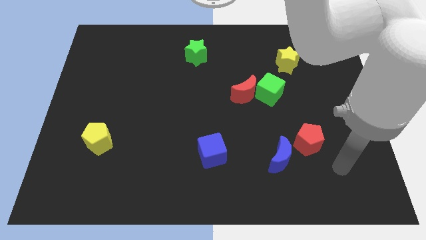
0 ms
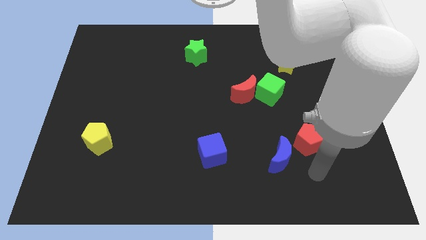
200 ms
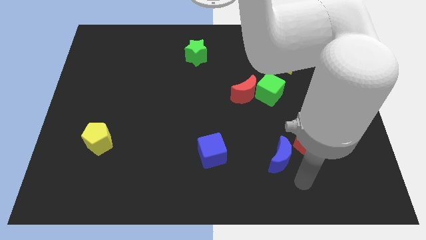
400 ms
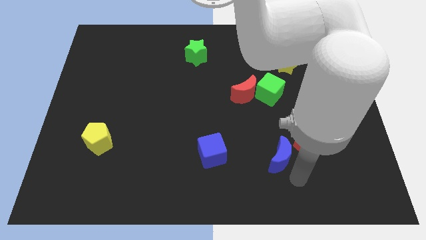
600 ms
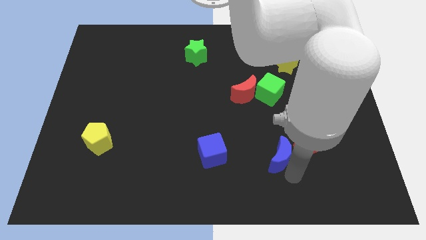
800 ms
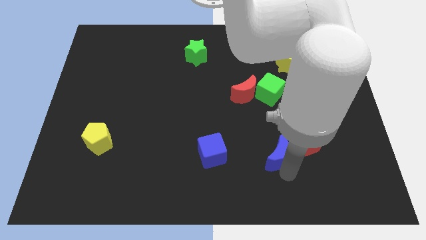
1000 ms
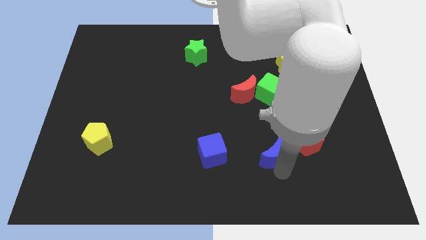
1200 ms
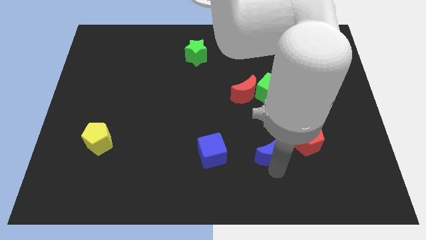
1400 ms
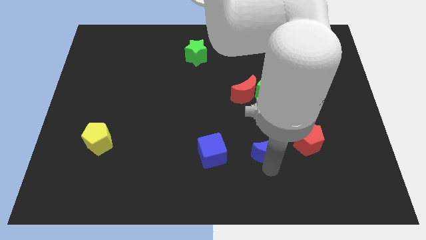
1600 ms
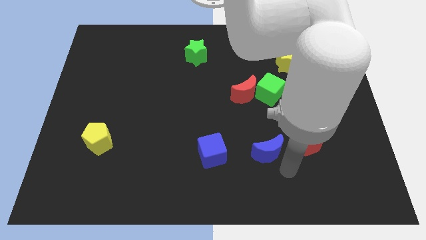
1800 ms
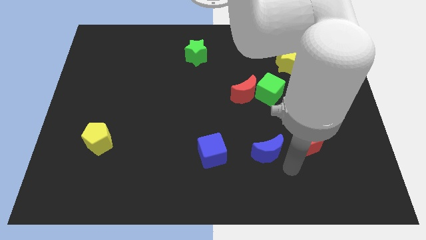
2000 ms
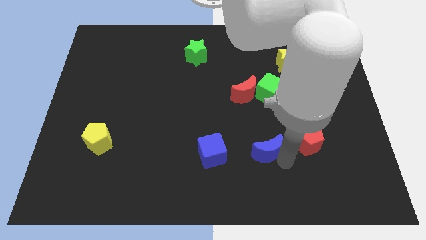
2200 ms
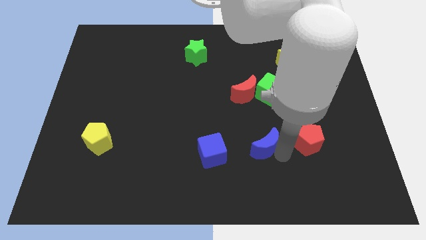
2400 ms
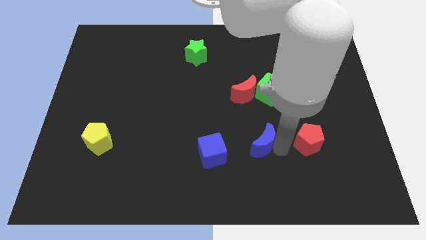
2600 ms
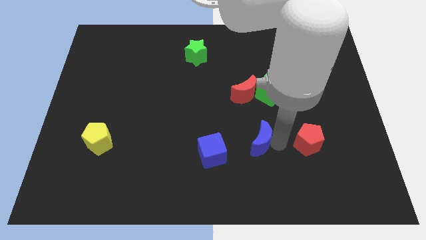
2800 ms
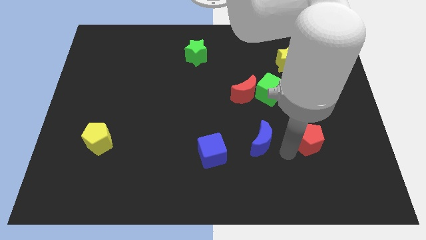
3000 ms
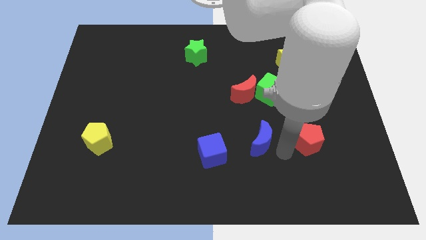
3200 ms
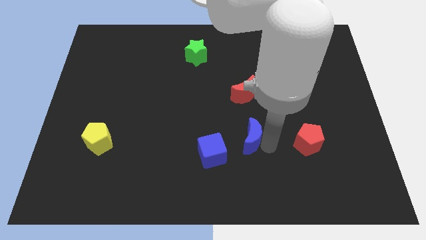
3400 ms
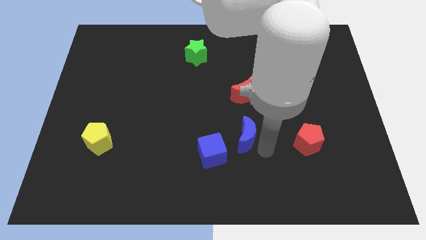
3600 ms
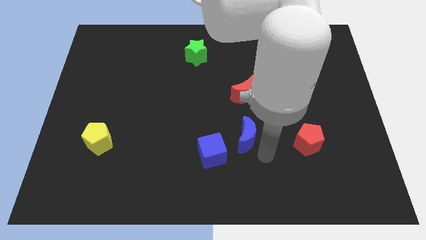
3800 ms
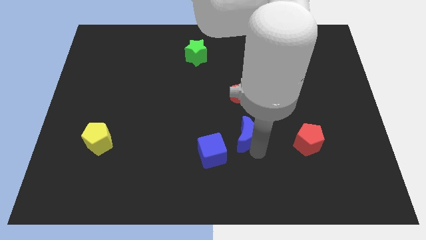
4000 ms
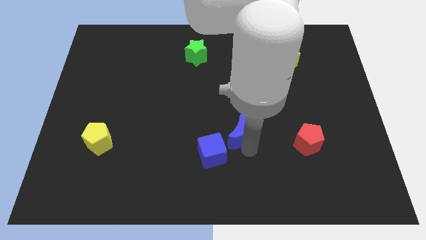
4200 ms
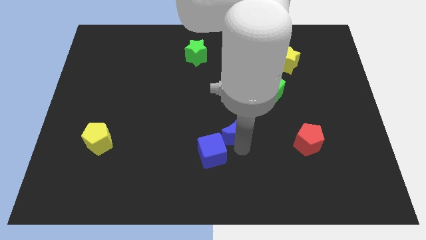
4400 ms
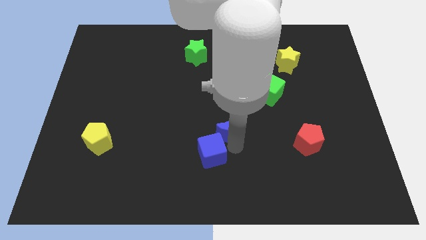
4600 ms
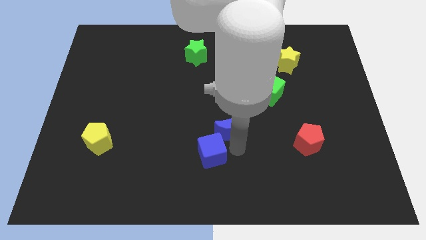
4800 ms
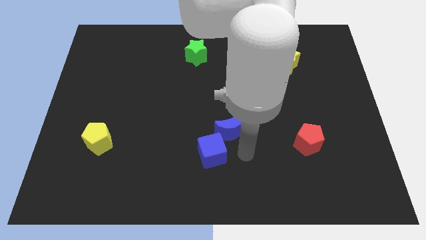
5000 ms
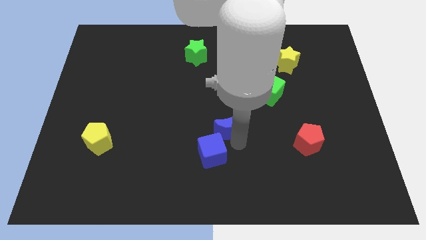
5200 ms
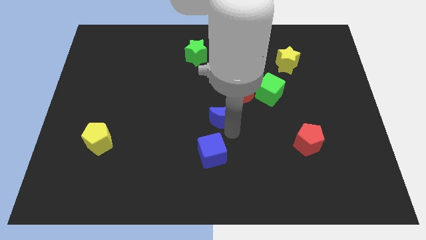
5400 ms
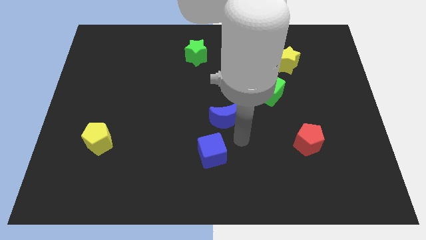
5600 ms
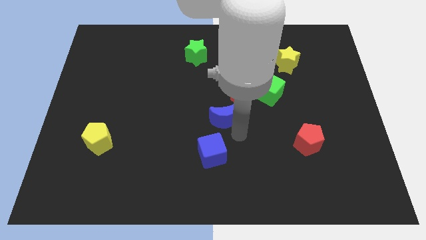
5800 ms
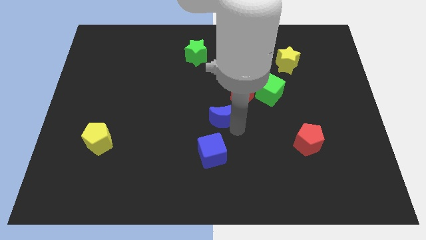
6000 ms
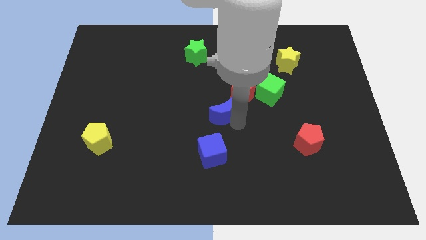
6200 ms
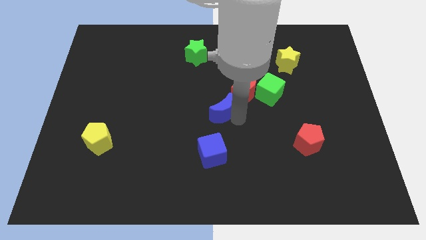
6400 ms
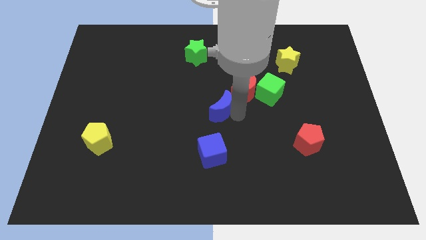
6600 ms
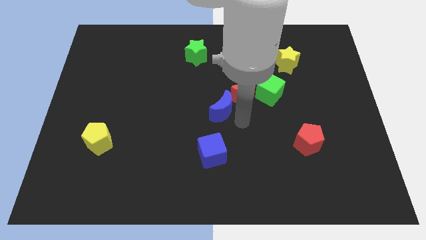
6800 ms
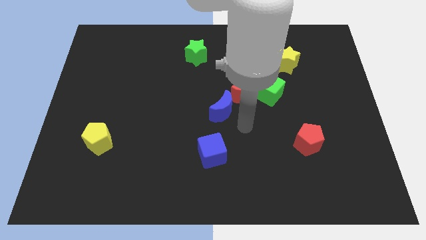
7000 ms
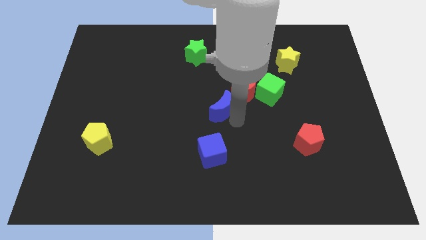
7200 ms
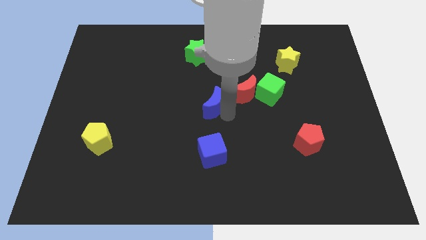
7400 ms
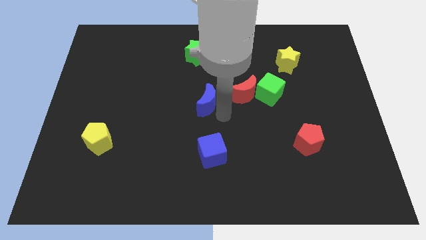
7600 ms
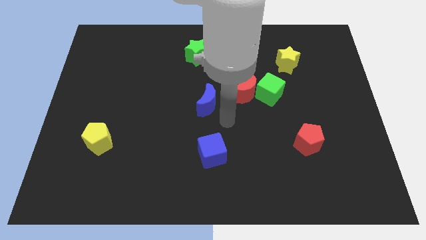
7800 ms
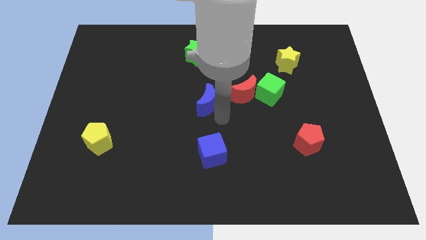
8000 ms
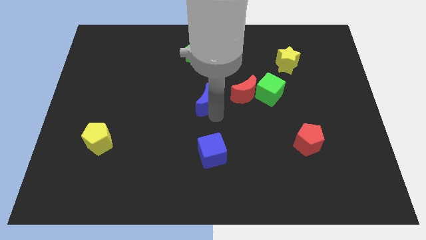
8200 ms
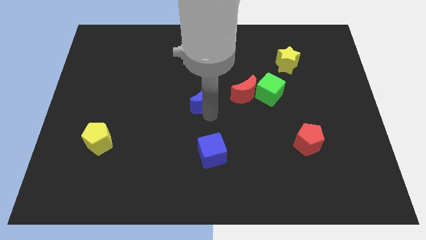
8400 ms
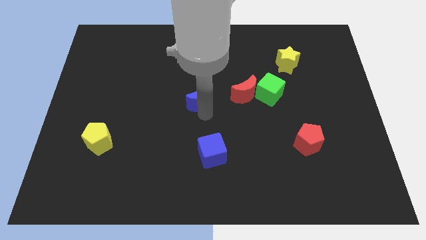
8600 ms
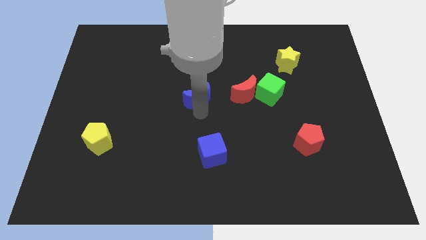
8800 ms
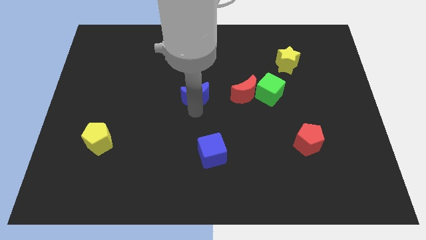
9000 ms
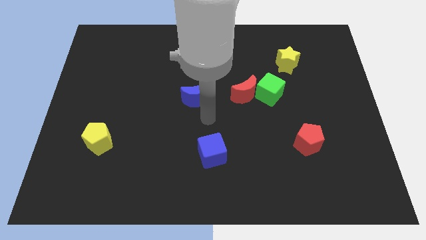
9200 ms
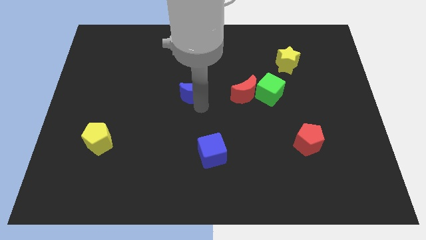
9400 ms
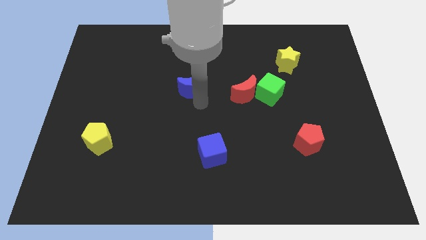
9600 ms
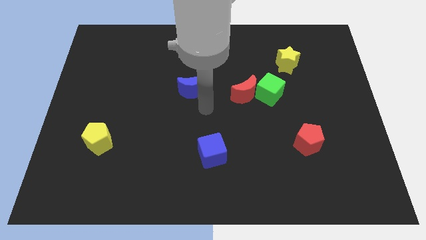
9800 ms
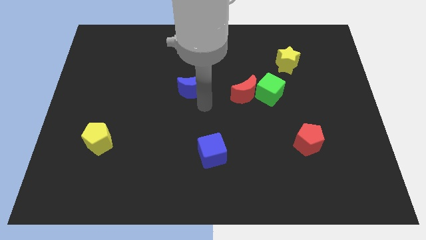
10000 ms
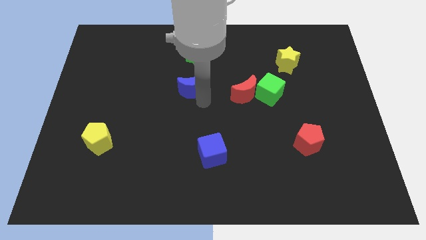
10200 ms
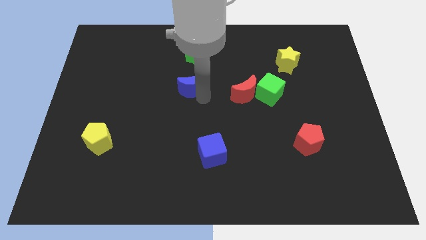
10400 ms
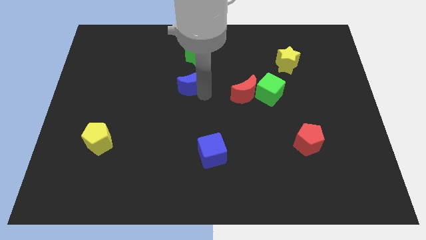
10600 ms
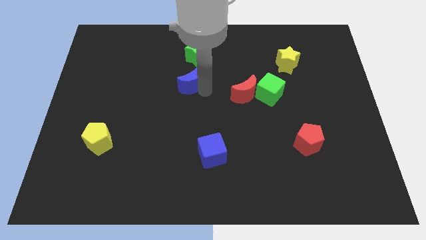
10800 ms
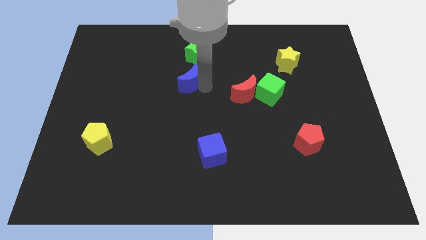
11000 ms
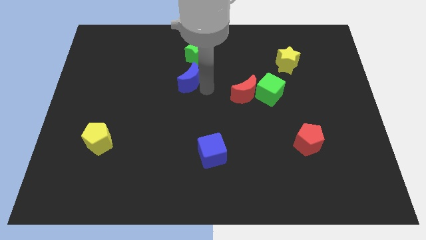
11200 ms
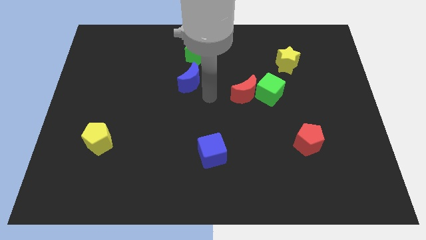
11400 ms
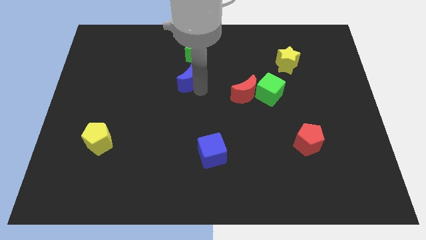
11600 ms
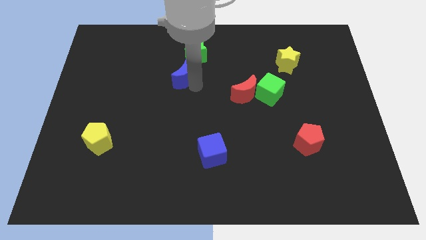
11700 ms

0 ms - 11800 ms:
put the blue moon diagonally down and to the left of the green star

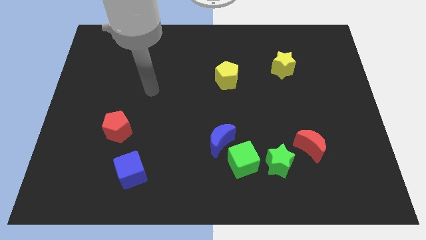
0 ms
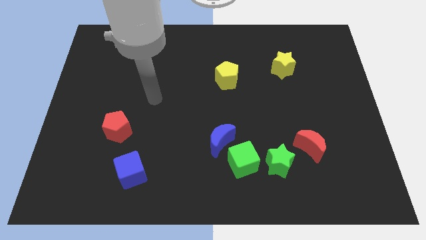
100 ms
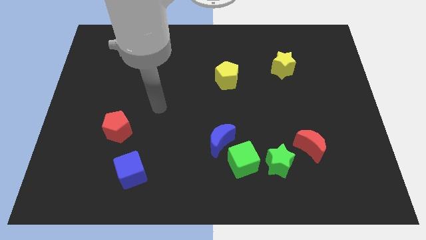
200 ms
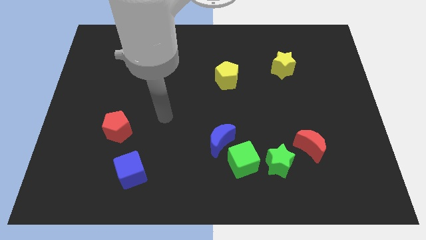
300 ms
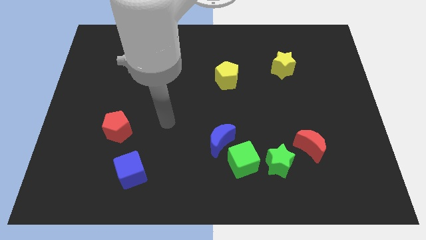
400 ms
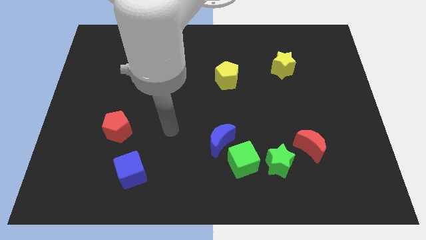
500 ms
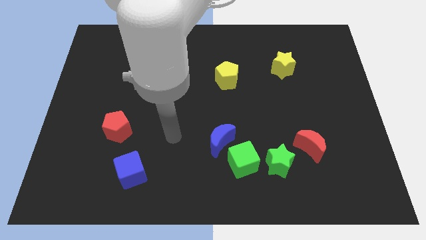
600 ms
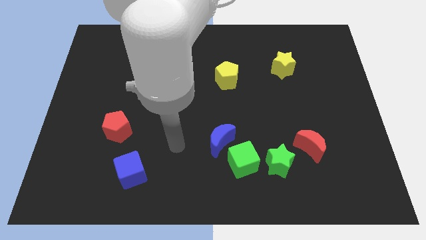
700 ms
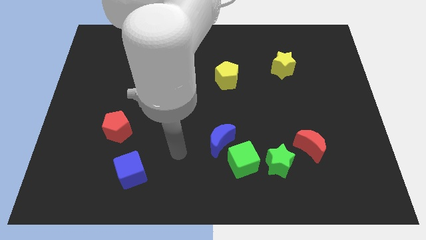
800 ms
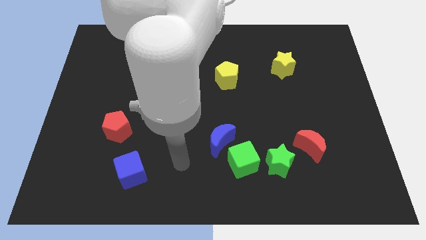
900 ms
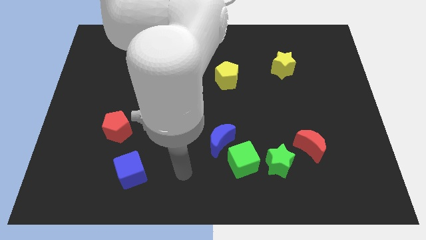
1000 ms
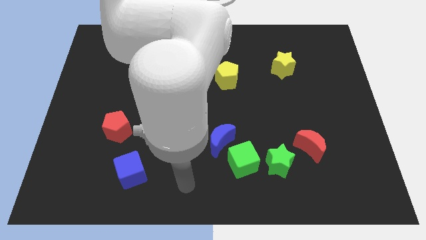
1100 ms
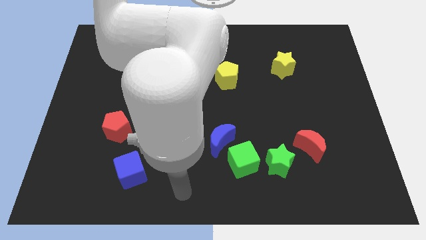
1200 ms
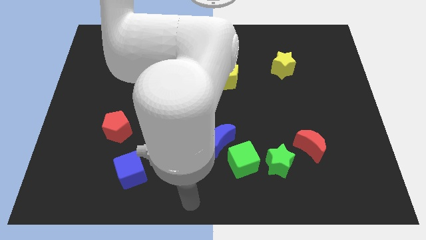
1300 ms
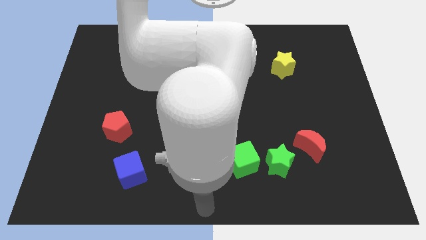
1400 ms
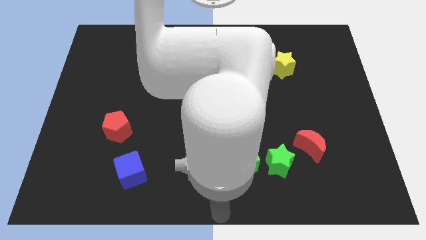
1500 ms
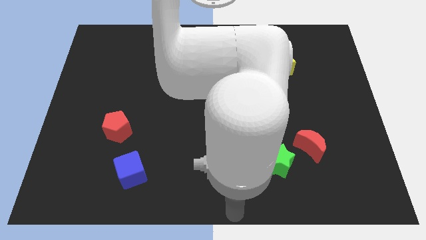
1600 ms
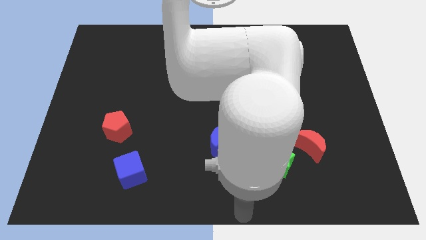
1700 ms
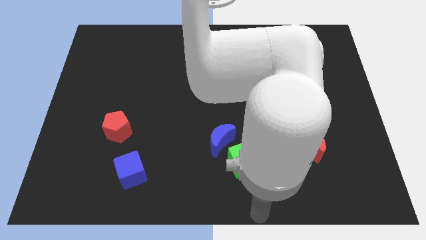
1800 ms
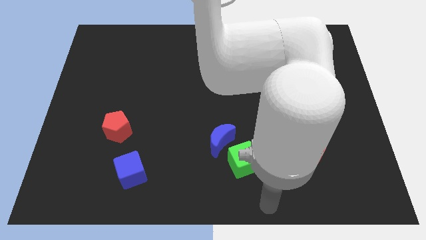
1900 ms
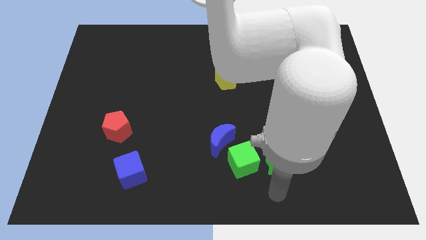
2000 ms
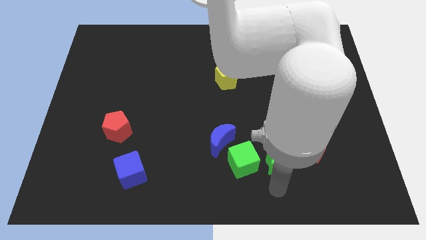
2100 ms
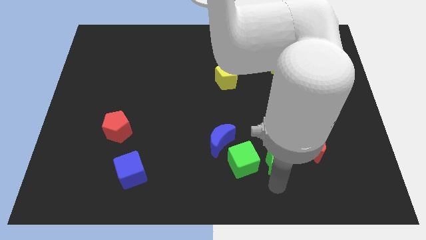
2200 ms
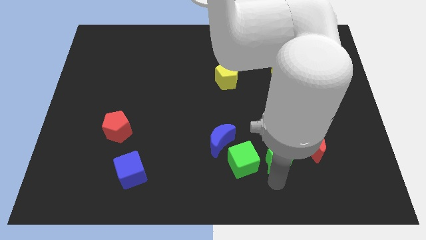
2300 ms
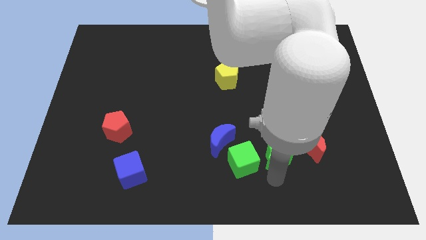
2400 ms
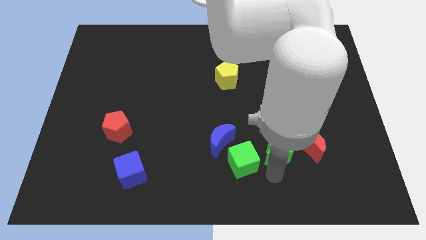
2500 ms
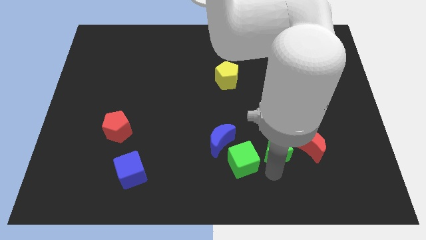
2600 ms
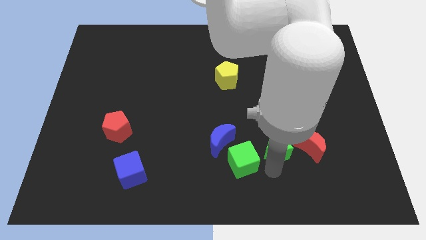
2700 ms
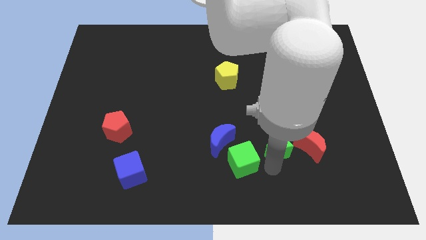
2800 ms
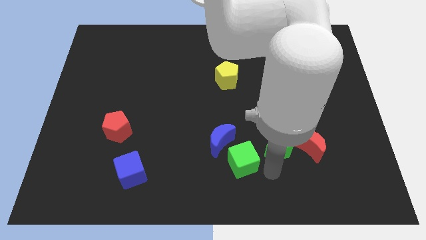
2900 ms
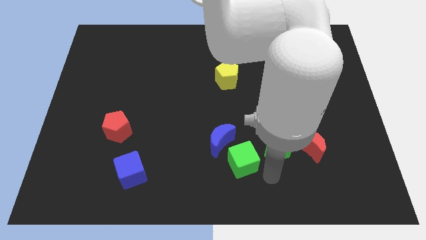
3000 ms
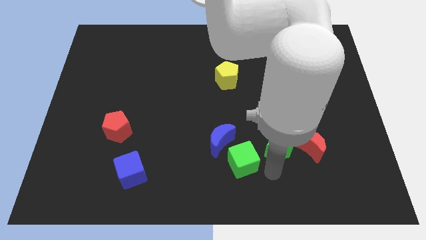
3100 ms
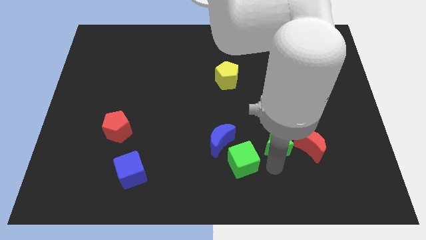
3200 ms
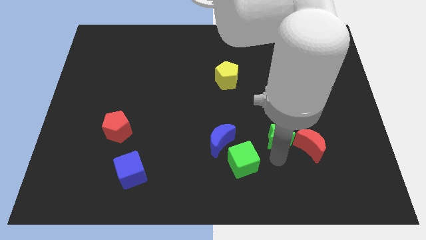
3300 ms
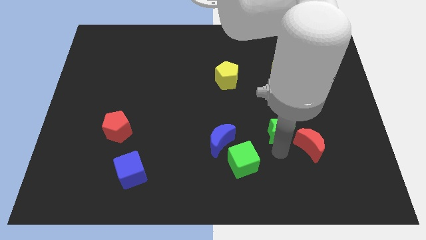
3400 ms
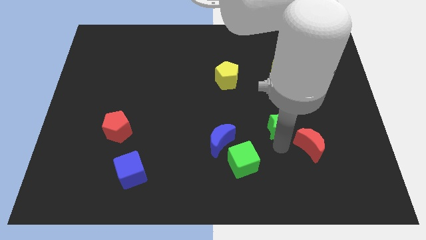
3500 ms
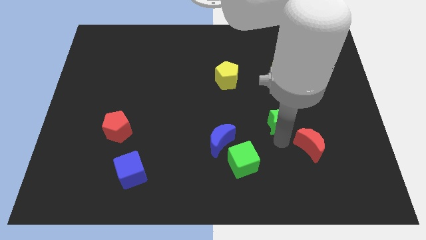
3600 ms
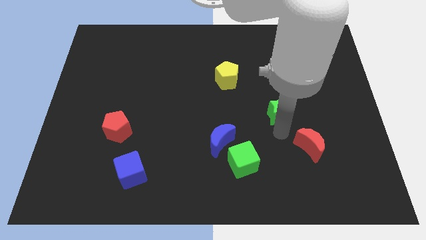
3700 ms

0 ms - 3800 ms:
move the green star below the yellow star
